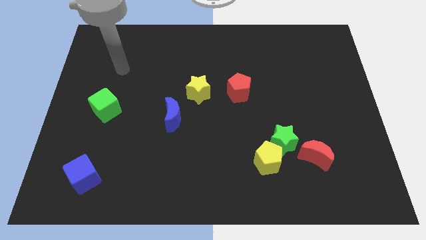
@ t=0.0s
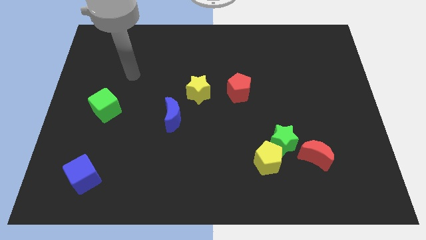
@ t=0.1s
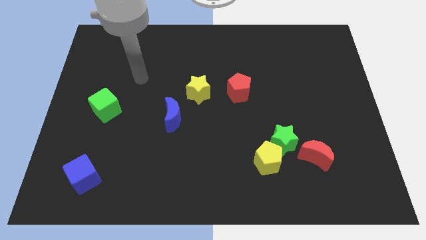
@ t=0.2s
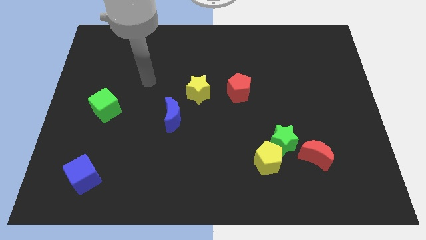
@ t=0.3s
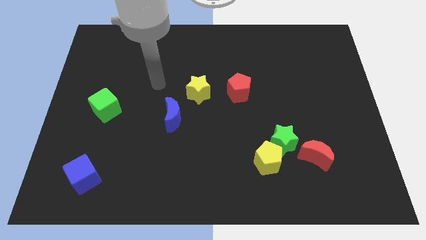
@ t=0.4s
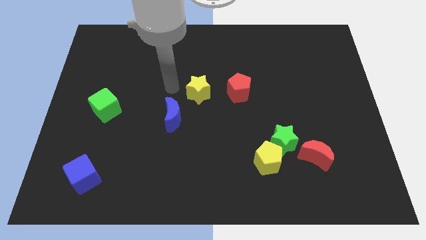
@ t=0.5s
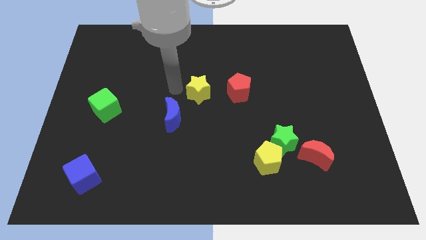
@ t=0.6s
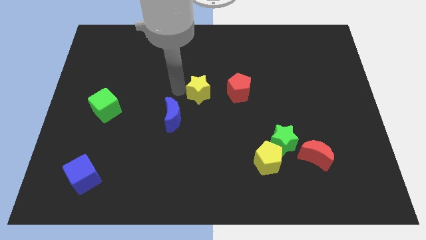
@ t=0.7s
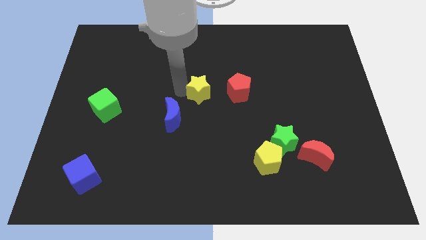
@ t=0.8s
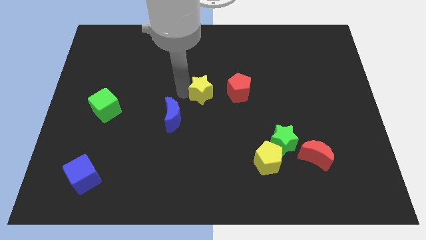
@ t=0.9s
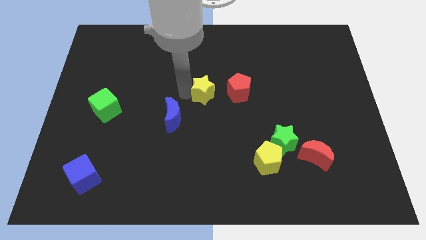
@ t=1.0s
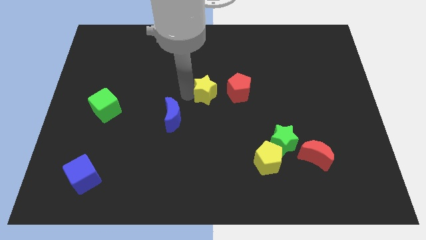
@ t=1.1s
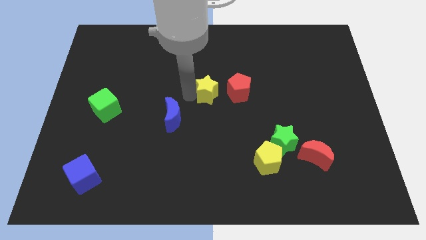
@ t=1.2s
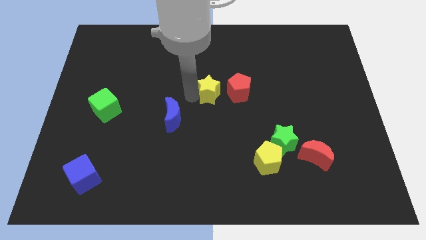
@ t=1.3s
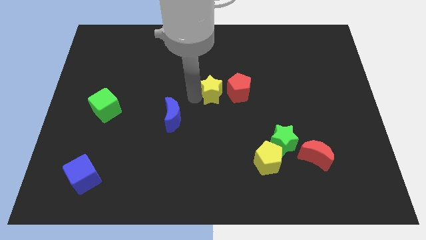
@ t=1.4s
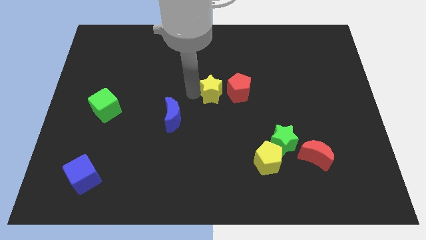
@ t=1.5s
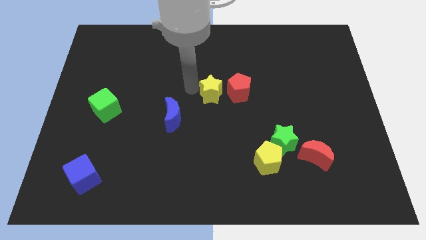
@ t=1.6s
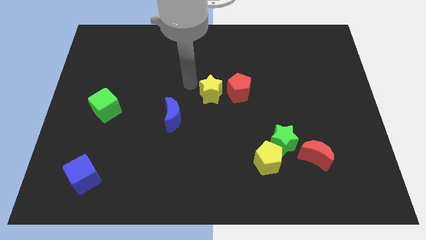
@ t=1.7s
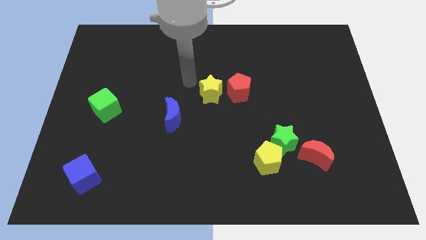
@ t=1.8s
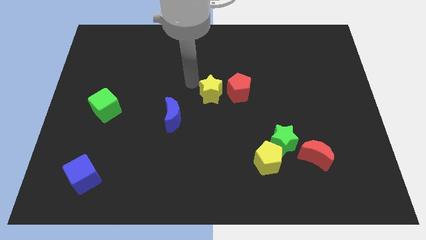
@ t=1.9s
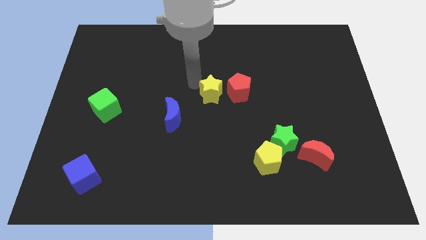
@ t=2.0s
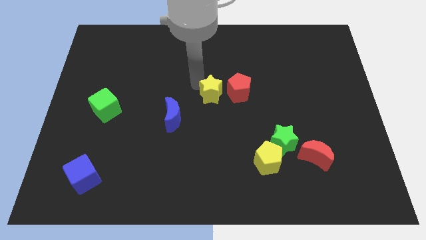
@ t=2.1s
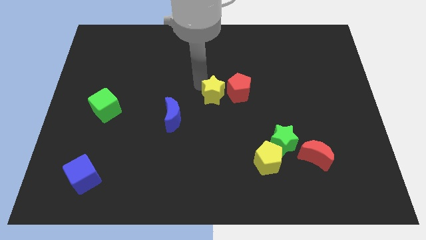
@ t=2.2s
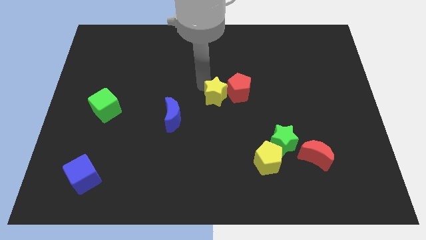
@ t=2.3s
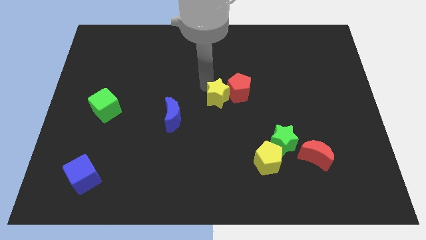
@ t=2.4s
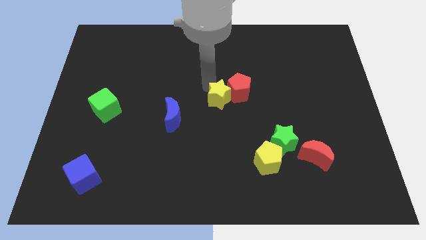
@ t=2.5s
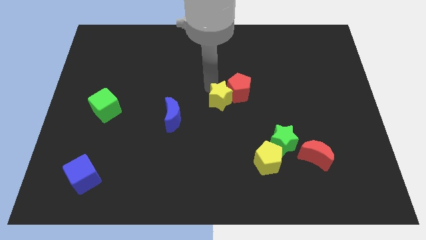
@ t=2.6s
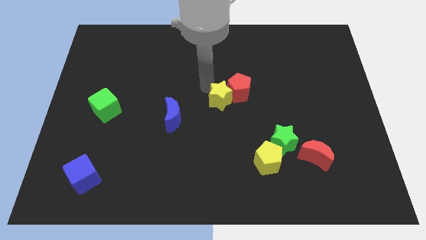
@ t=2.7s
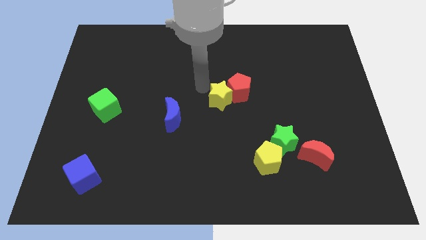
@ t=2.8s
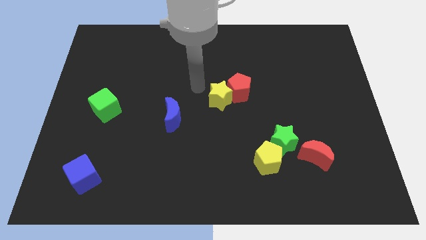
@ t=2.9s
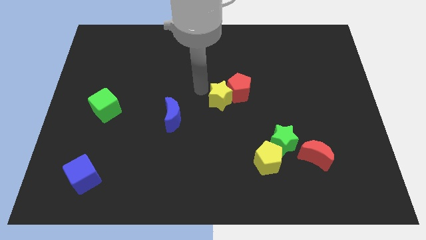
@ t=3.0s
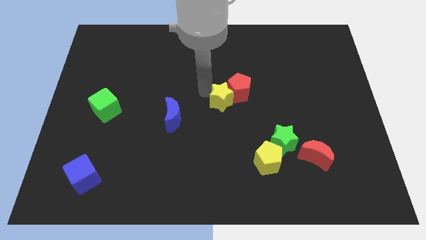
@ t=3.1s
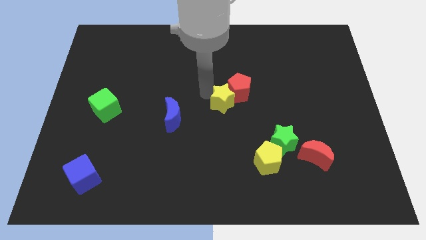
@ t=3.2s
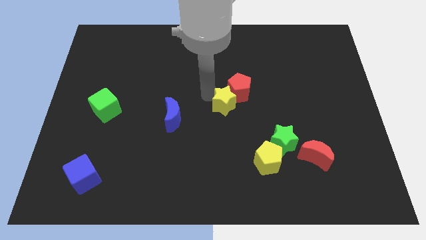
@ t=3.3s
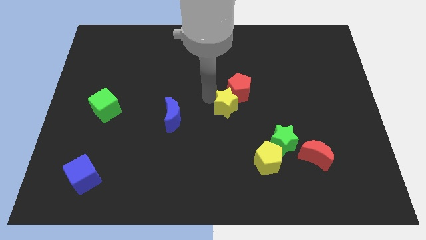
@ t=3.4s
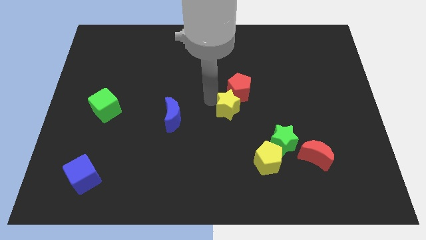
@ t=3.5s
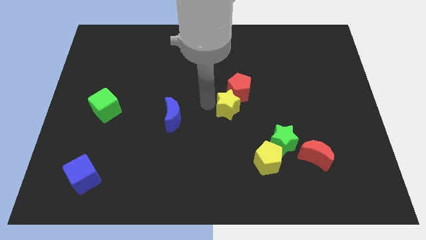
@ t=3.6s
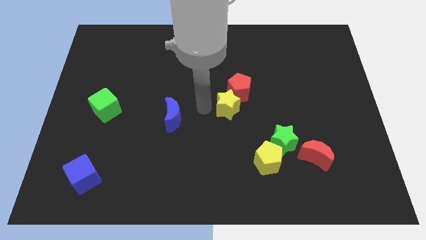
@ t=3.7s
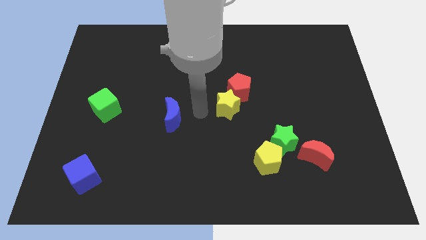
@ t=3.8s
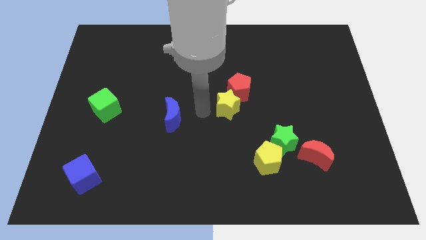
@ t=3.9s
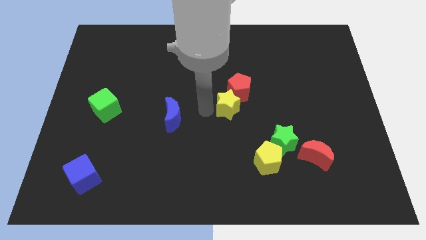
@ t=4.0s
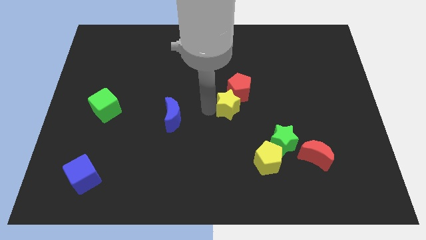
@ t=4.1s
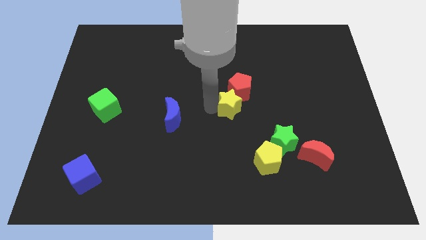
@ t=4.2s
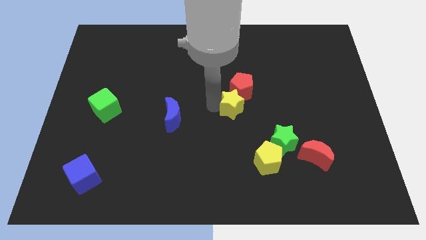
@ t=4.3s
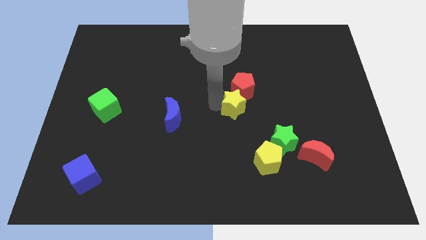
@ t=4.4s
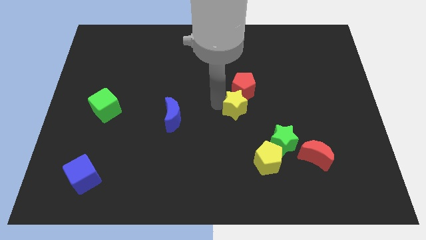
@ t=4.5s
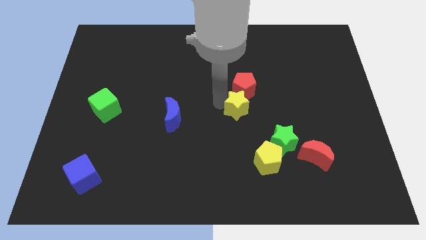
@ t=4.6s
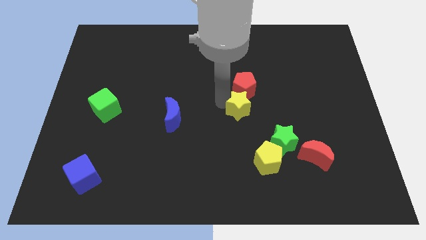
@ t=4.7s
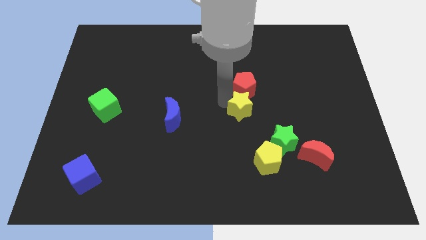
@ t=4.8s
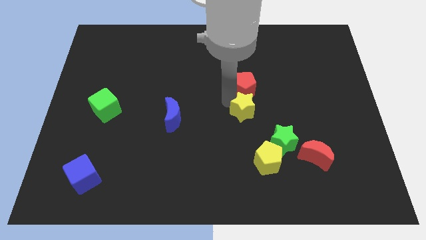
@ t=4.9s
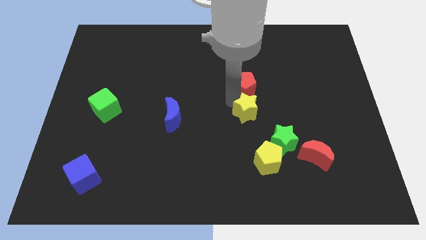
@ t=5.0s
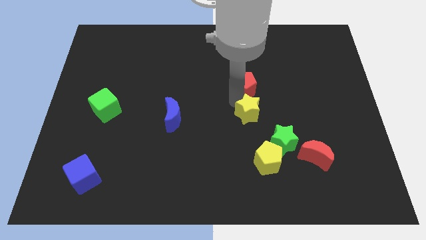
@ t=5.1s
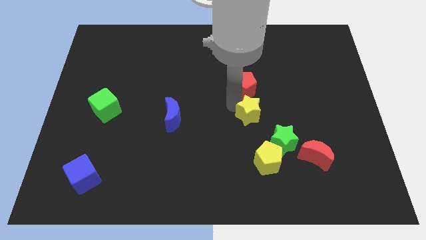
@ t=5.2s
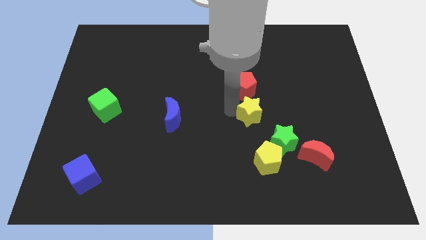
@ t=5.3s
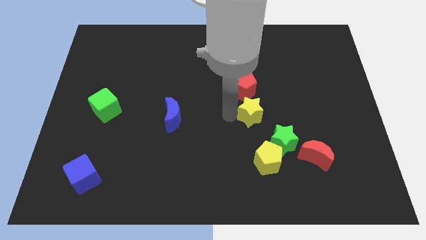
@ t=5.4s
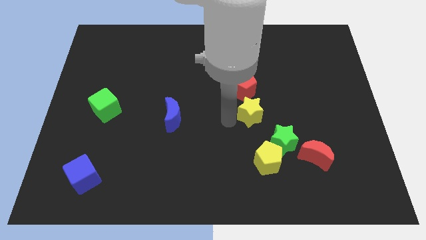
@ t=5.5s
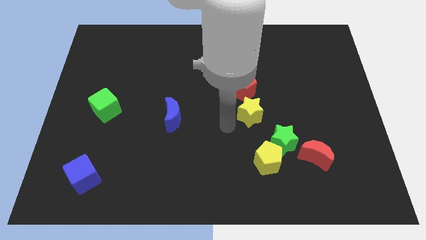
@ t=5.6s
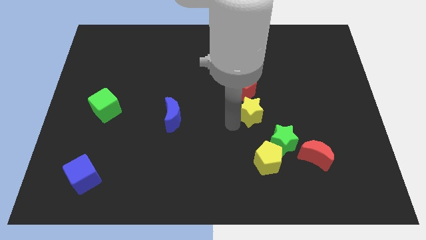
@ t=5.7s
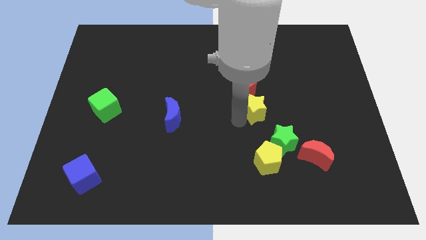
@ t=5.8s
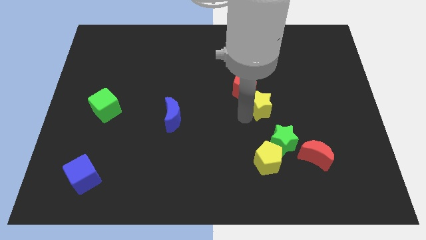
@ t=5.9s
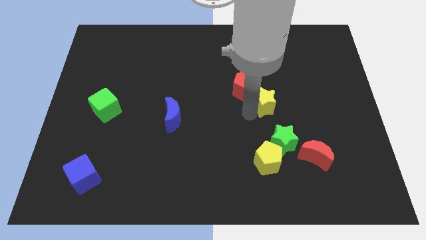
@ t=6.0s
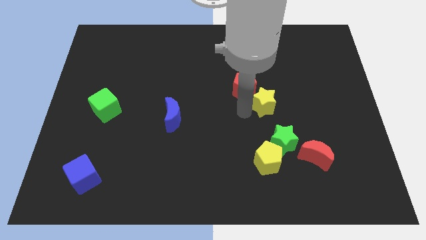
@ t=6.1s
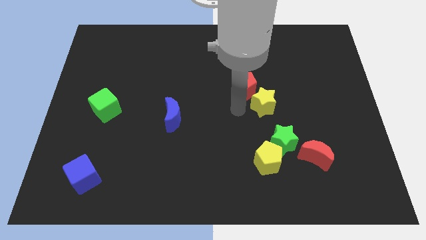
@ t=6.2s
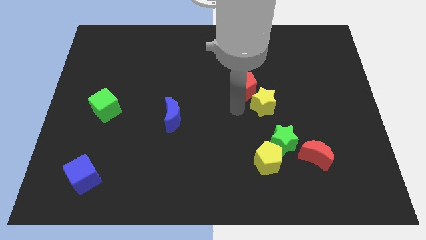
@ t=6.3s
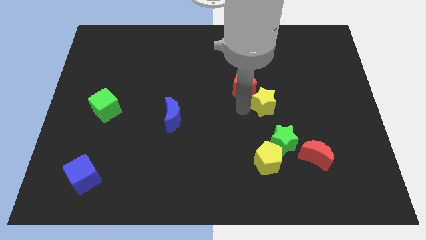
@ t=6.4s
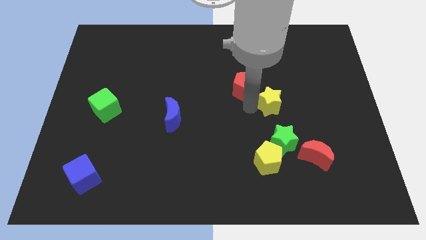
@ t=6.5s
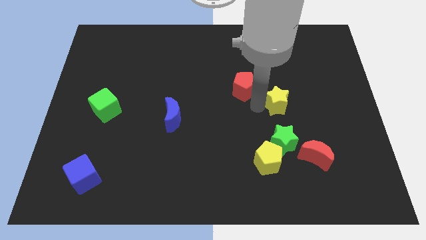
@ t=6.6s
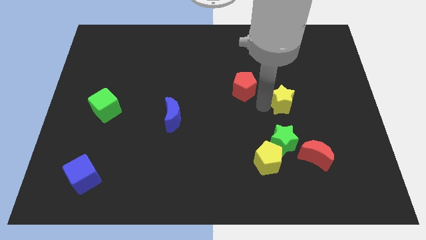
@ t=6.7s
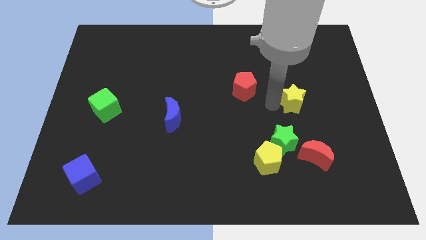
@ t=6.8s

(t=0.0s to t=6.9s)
slide the yellow star right

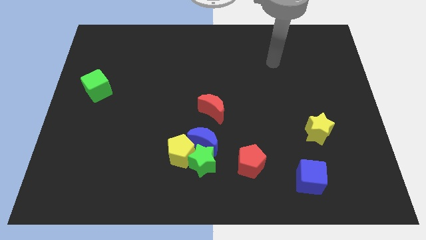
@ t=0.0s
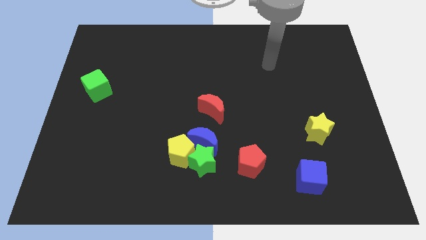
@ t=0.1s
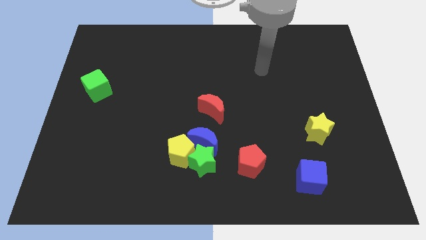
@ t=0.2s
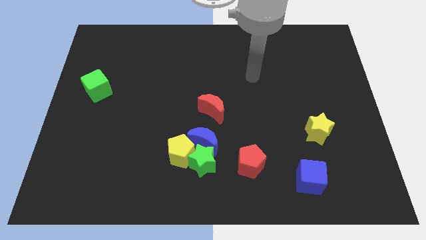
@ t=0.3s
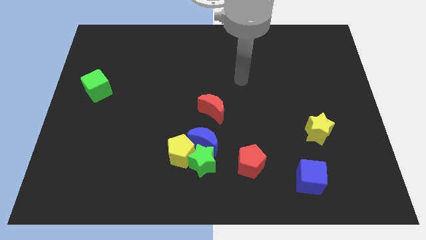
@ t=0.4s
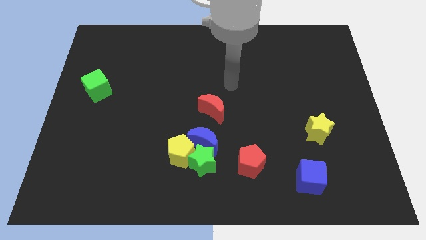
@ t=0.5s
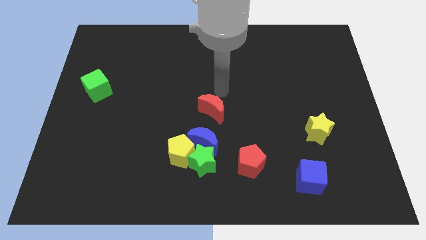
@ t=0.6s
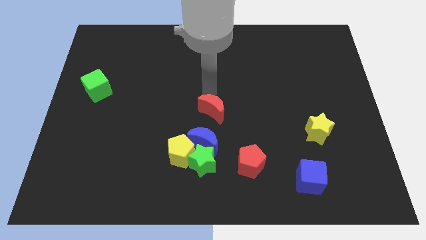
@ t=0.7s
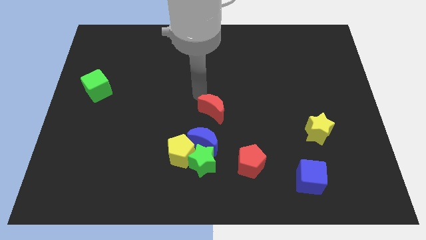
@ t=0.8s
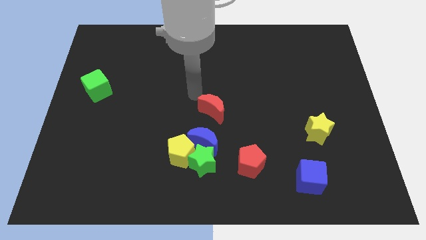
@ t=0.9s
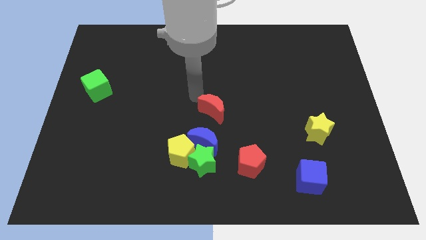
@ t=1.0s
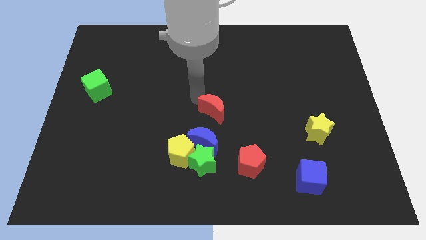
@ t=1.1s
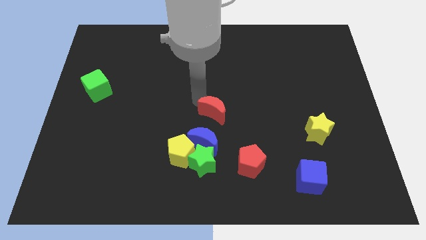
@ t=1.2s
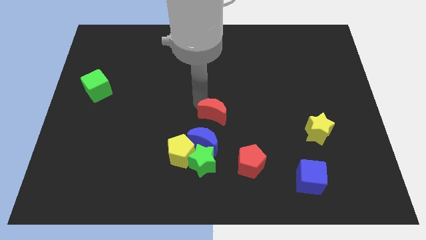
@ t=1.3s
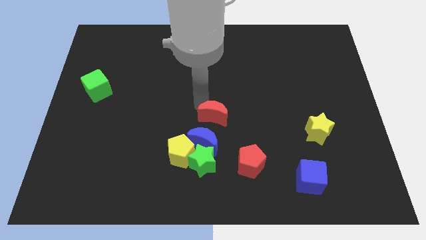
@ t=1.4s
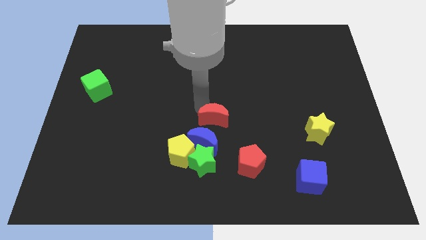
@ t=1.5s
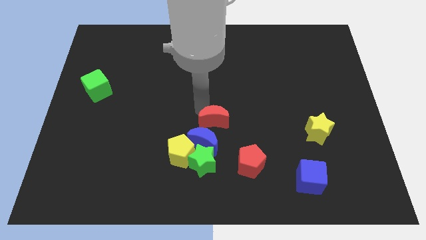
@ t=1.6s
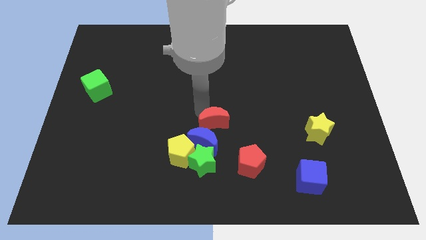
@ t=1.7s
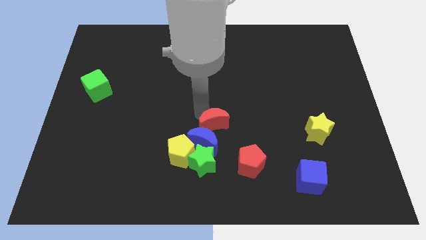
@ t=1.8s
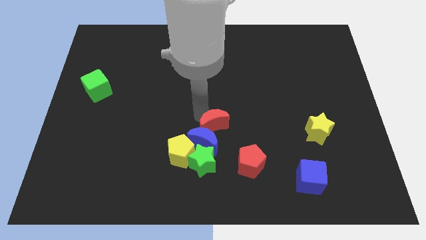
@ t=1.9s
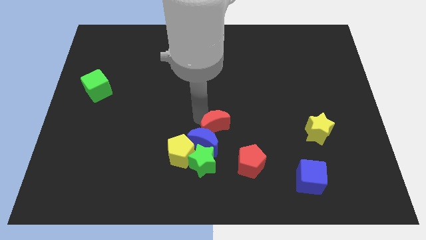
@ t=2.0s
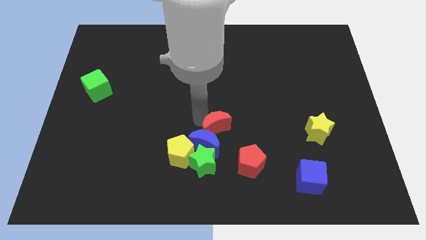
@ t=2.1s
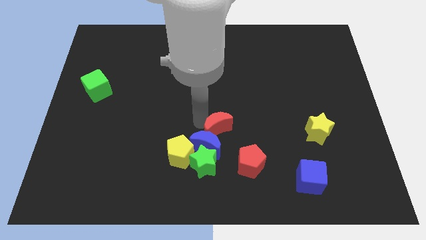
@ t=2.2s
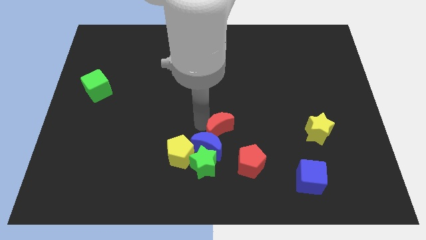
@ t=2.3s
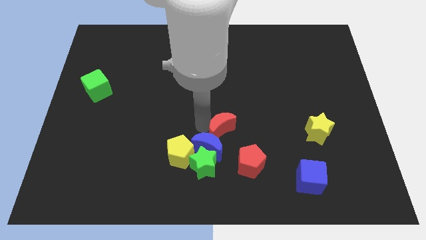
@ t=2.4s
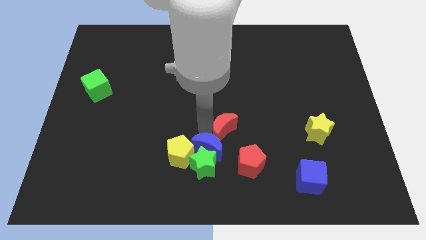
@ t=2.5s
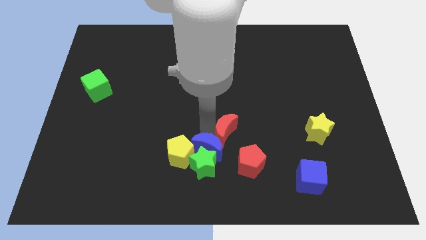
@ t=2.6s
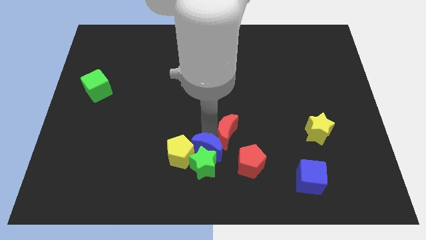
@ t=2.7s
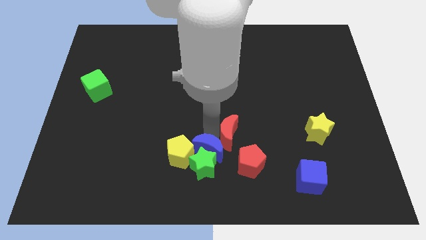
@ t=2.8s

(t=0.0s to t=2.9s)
slide the red moon down and right diagonally somewhat
